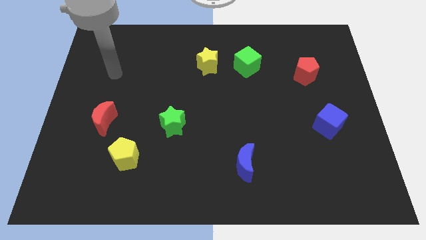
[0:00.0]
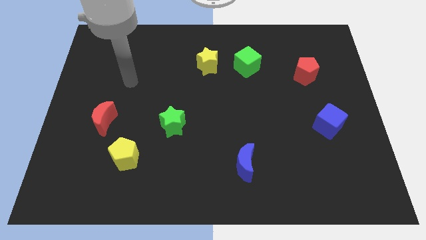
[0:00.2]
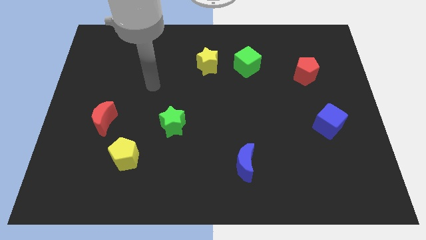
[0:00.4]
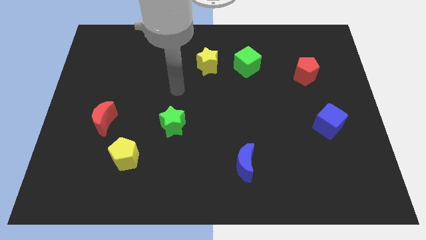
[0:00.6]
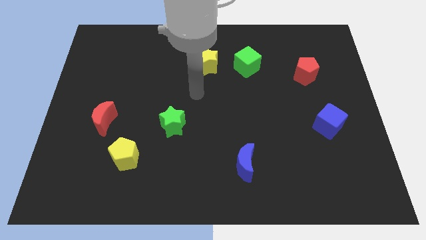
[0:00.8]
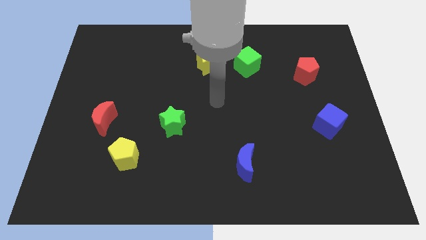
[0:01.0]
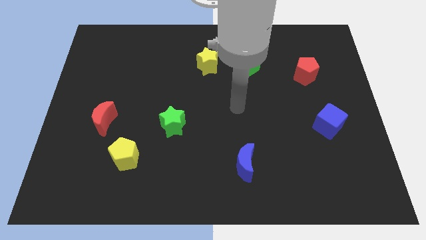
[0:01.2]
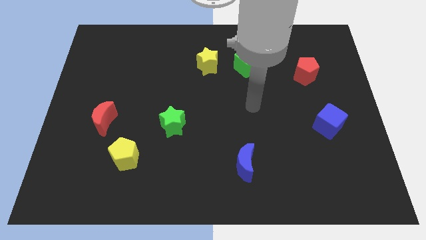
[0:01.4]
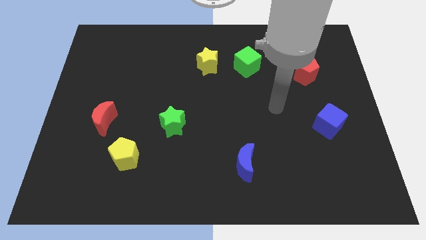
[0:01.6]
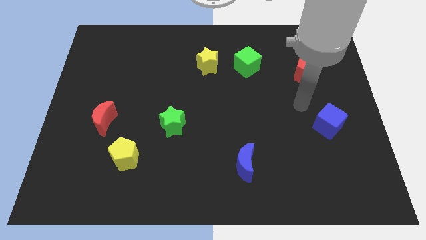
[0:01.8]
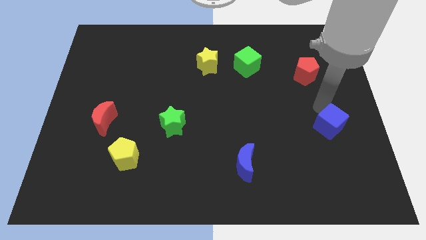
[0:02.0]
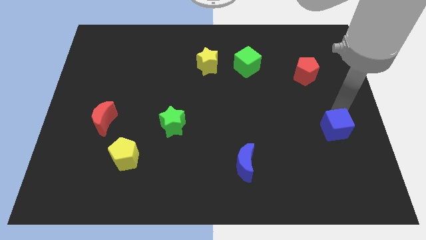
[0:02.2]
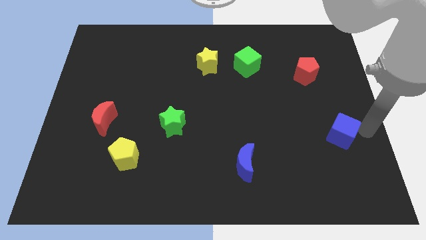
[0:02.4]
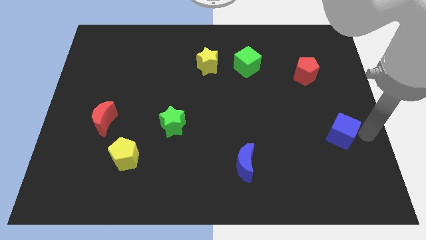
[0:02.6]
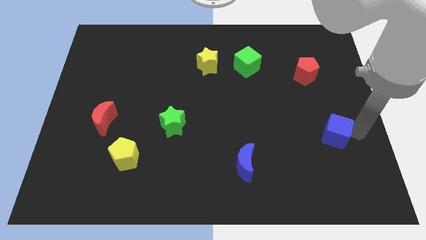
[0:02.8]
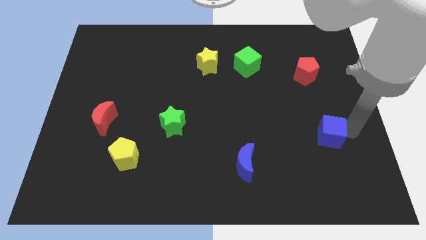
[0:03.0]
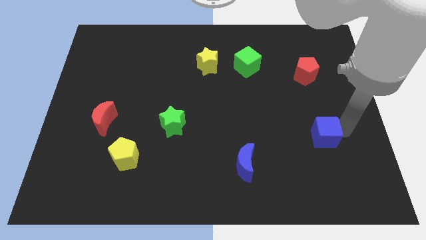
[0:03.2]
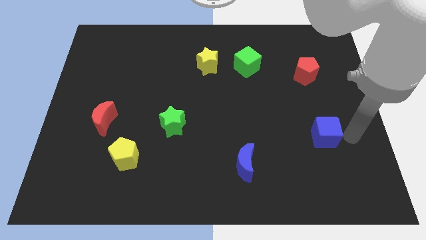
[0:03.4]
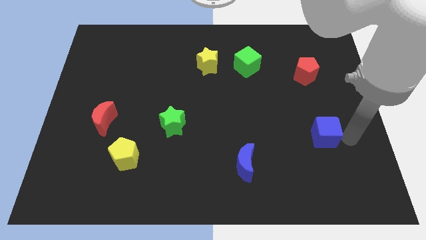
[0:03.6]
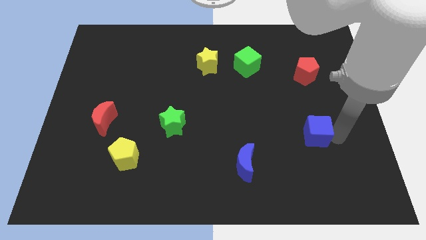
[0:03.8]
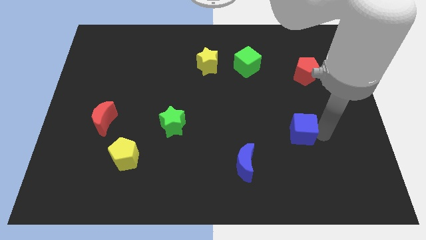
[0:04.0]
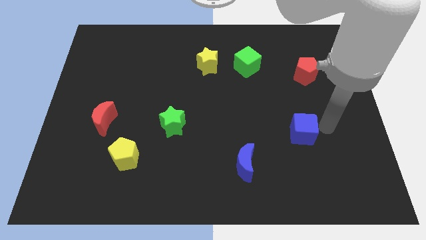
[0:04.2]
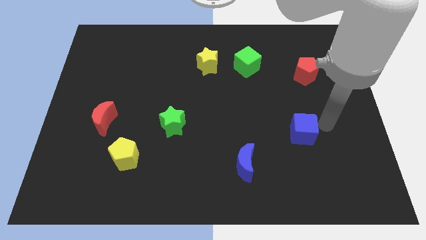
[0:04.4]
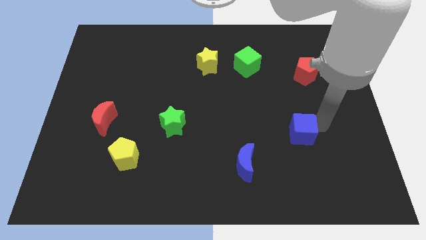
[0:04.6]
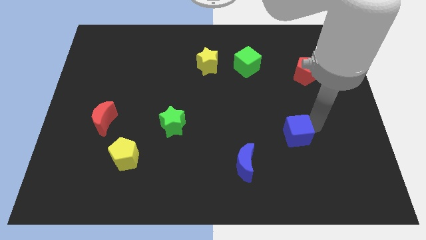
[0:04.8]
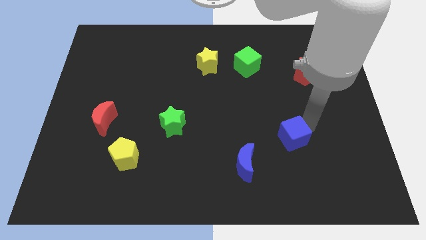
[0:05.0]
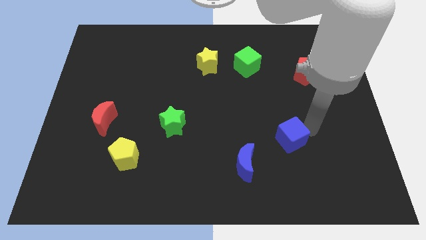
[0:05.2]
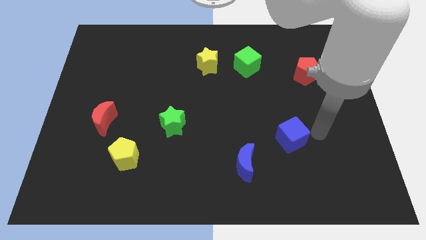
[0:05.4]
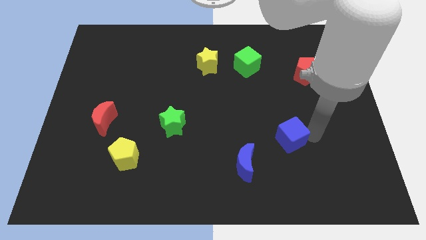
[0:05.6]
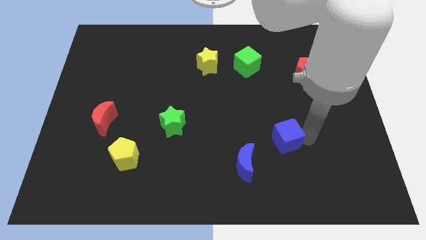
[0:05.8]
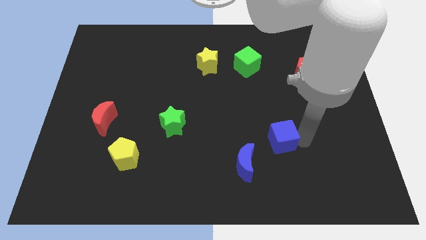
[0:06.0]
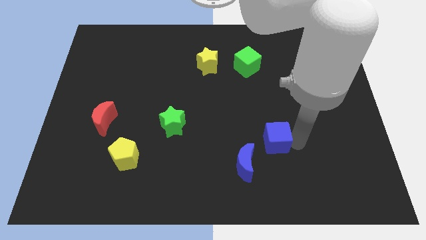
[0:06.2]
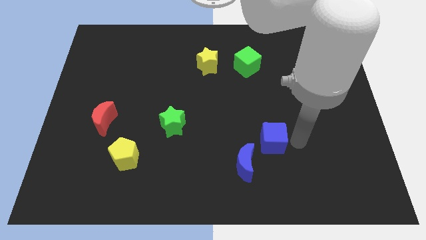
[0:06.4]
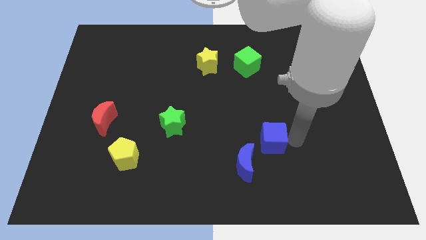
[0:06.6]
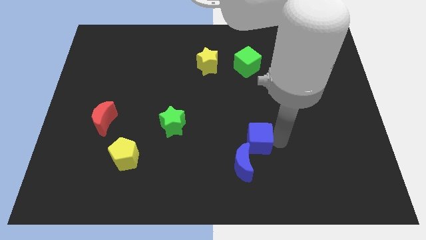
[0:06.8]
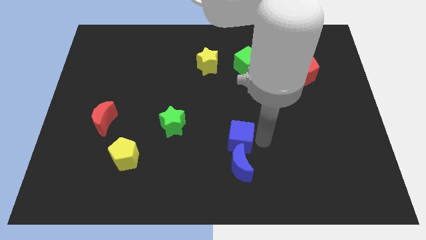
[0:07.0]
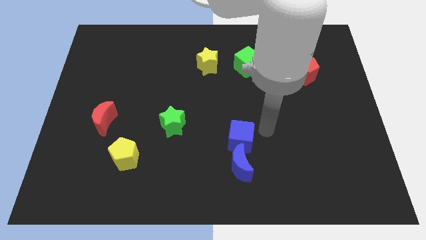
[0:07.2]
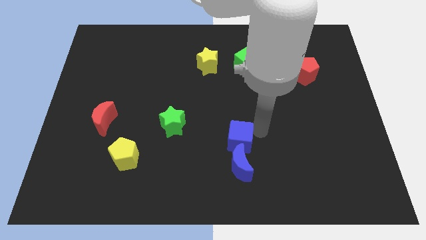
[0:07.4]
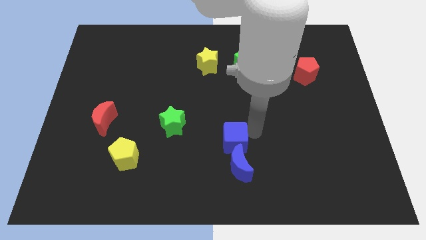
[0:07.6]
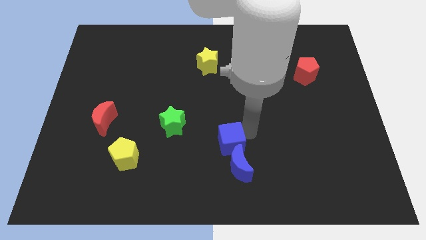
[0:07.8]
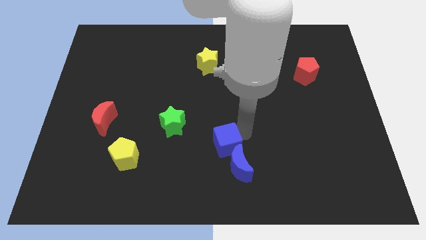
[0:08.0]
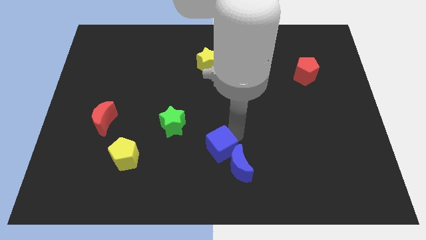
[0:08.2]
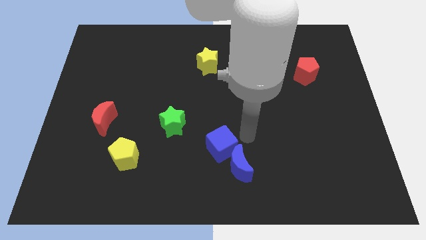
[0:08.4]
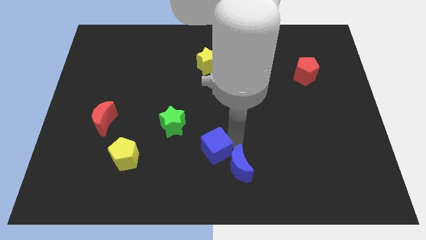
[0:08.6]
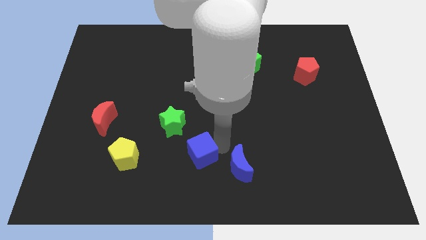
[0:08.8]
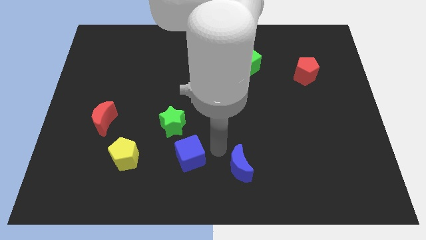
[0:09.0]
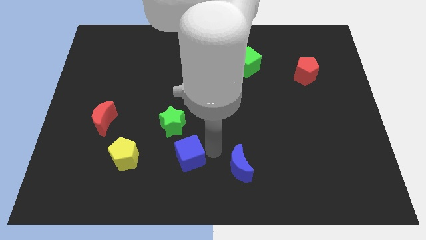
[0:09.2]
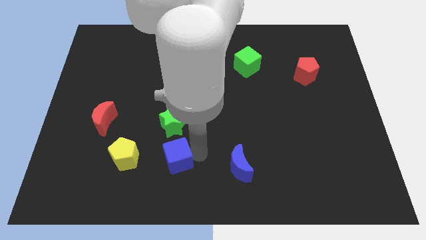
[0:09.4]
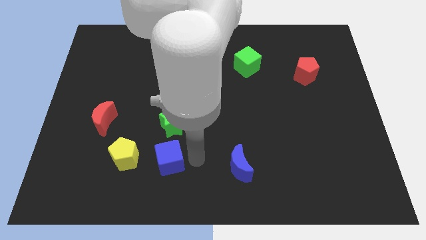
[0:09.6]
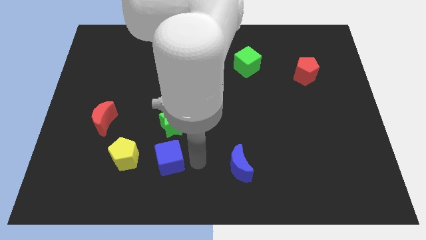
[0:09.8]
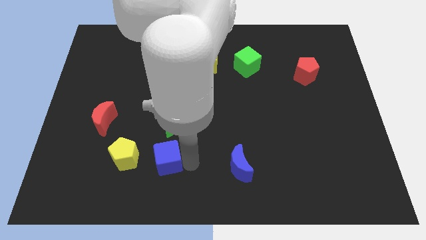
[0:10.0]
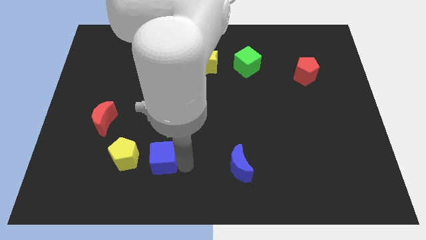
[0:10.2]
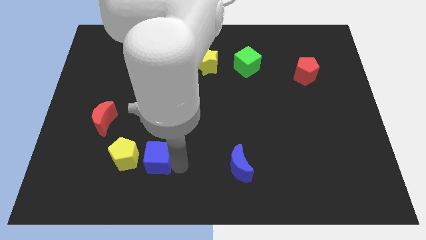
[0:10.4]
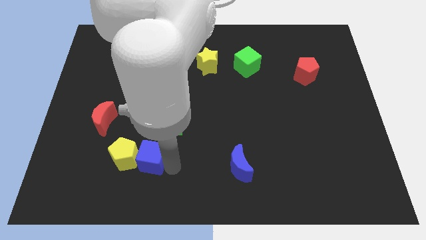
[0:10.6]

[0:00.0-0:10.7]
move the blue cube to the yellow pentagon

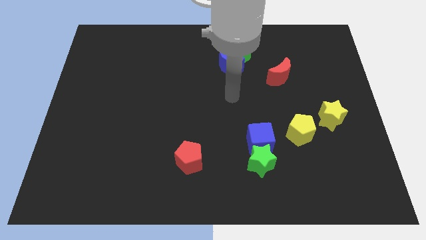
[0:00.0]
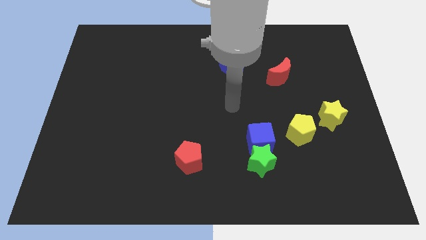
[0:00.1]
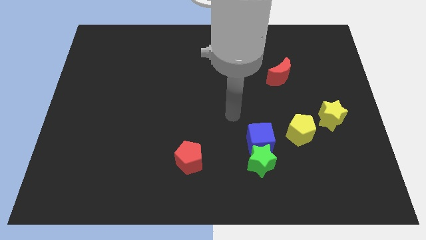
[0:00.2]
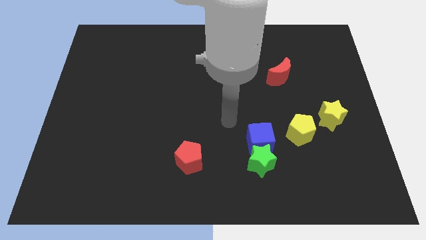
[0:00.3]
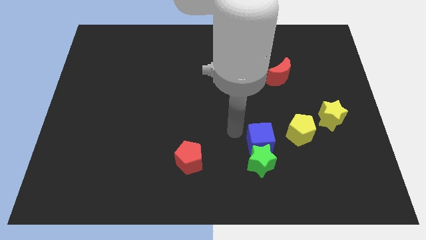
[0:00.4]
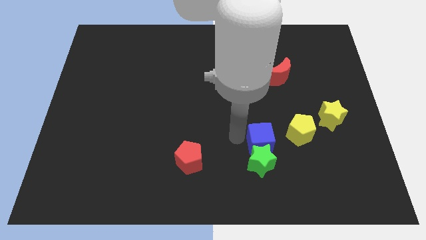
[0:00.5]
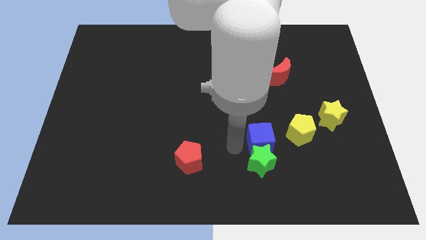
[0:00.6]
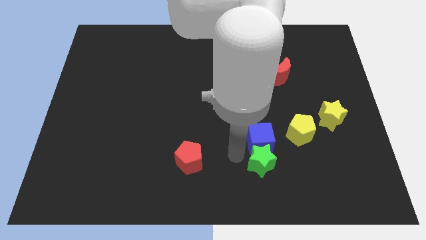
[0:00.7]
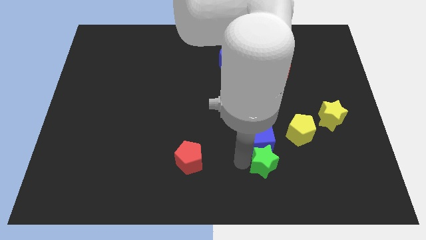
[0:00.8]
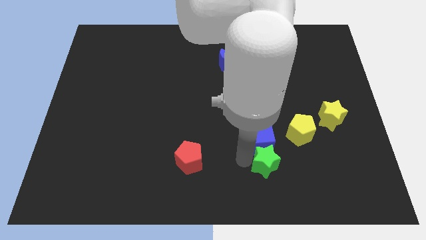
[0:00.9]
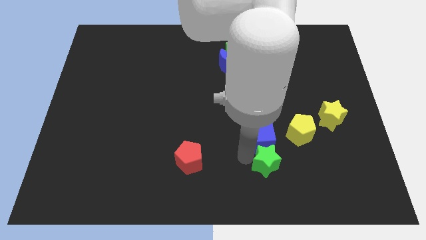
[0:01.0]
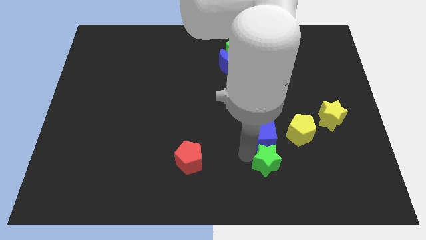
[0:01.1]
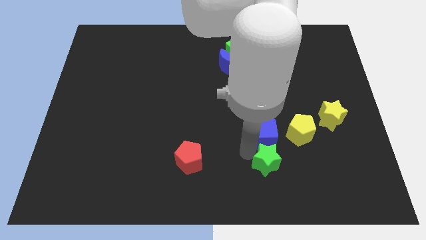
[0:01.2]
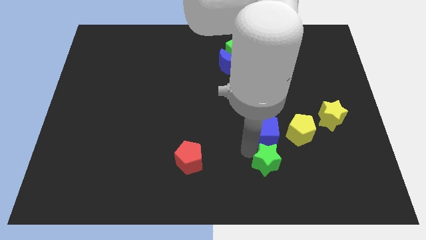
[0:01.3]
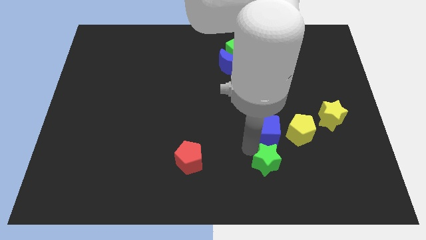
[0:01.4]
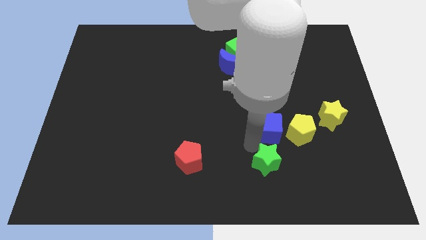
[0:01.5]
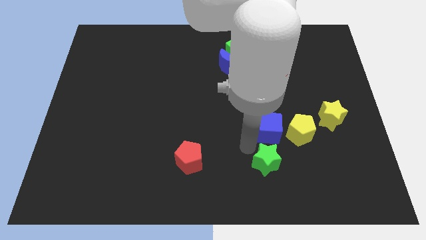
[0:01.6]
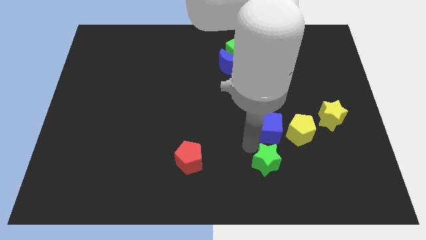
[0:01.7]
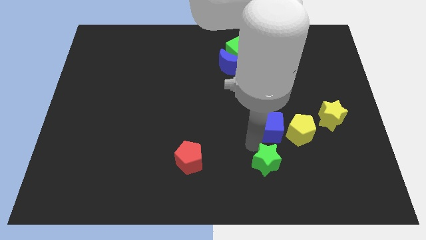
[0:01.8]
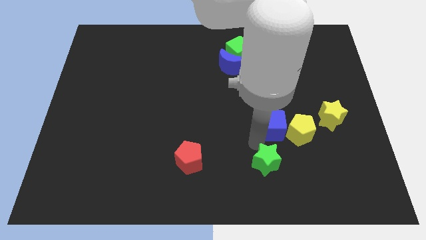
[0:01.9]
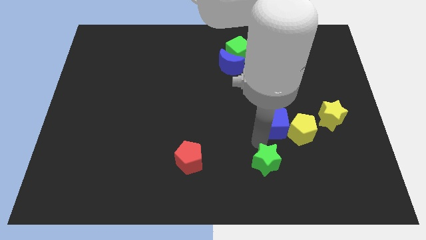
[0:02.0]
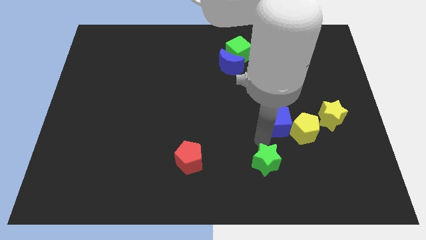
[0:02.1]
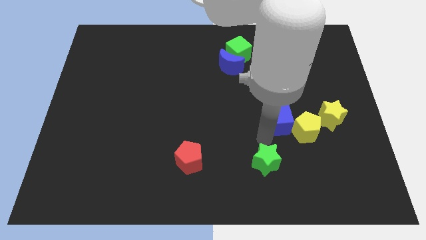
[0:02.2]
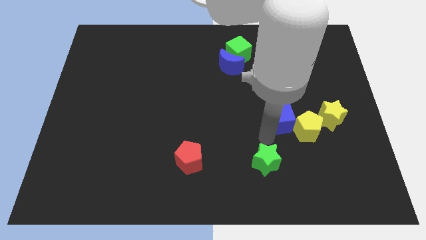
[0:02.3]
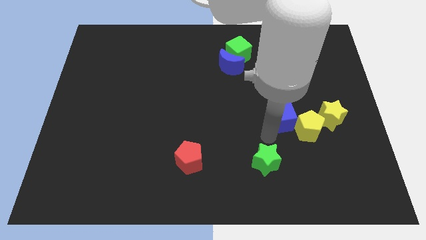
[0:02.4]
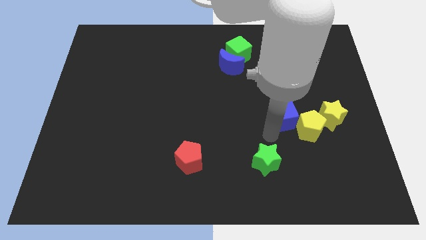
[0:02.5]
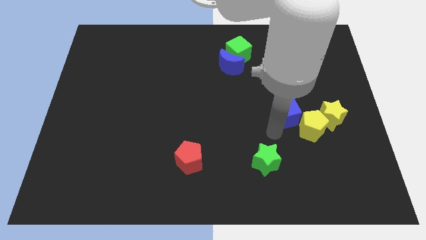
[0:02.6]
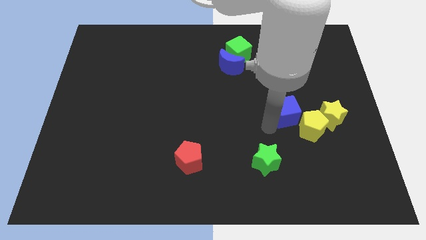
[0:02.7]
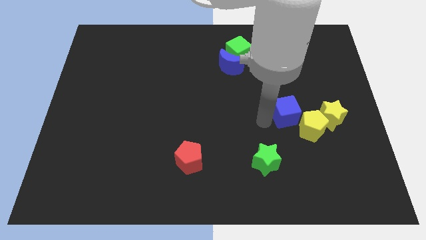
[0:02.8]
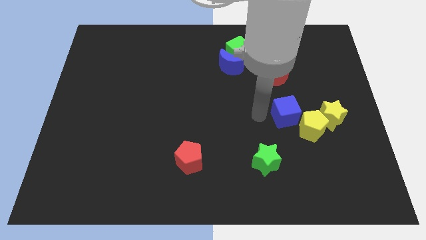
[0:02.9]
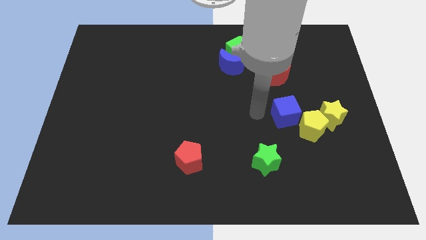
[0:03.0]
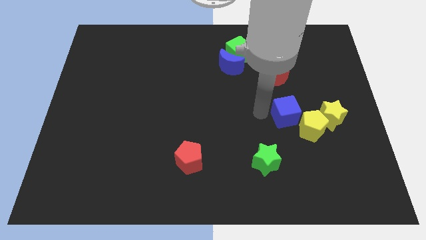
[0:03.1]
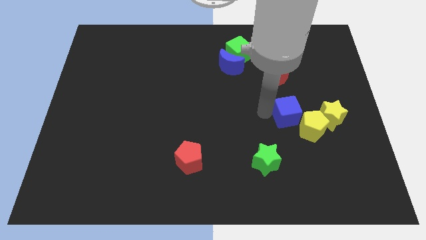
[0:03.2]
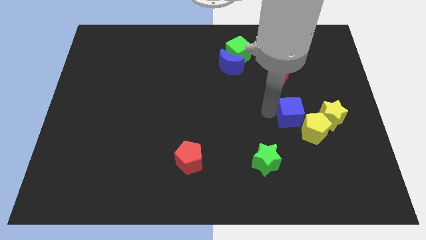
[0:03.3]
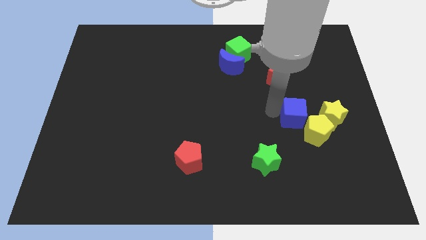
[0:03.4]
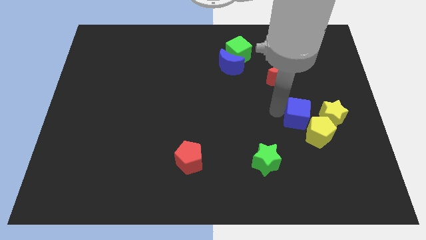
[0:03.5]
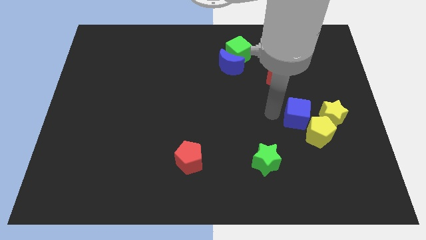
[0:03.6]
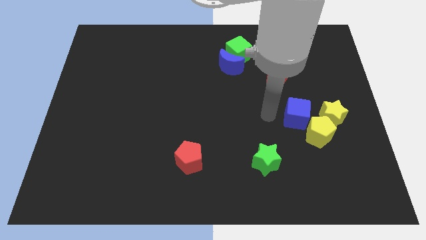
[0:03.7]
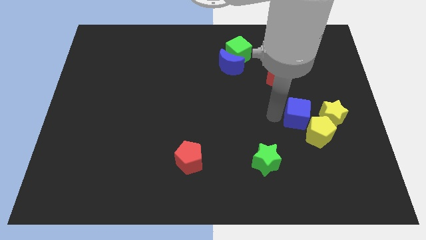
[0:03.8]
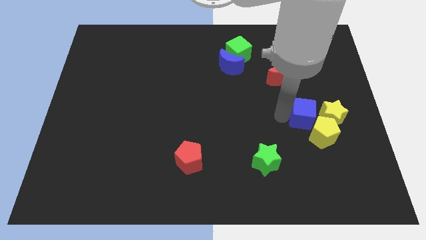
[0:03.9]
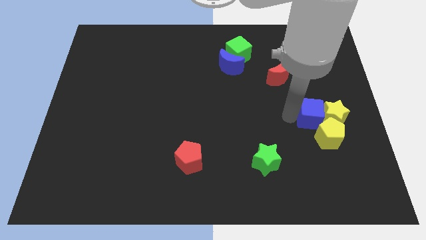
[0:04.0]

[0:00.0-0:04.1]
push the blue cube next to the yellow star
